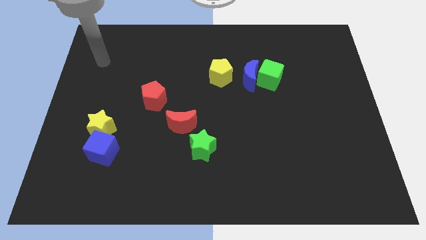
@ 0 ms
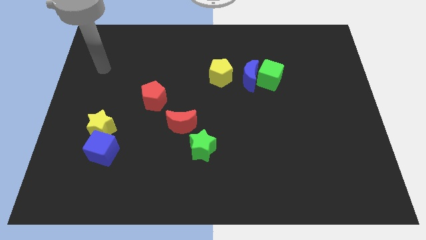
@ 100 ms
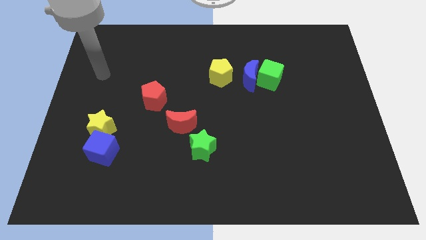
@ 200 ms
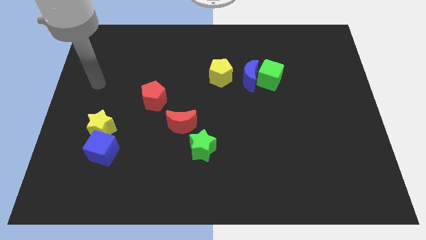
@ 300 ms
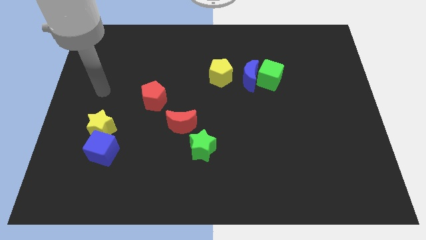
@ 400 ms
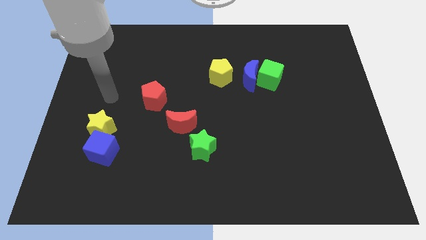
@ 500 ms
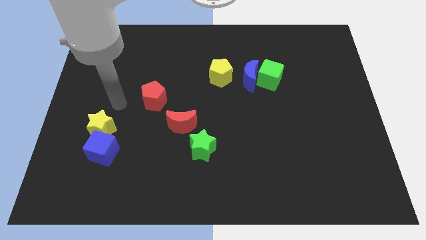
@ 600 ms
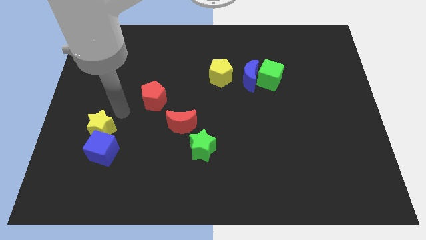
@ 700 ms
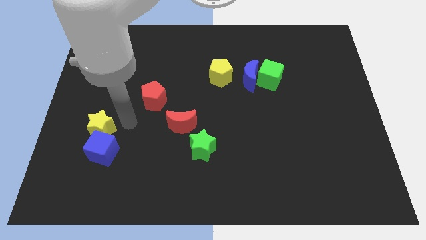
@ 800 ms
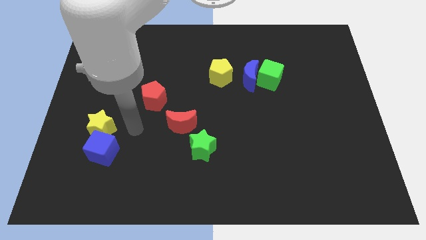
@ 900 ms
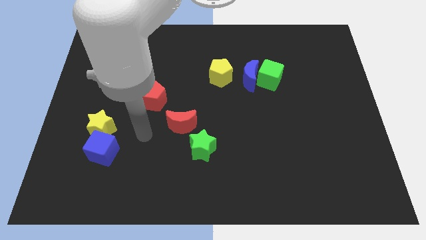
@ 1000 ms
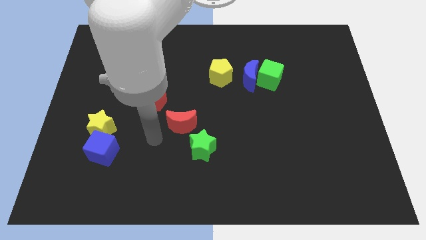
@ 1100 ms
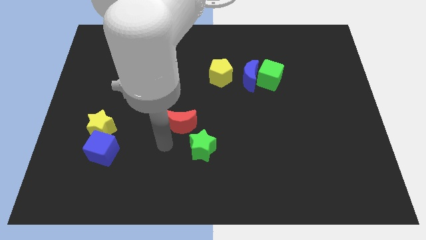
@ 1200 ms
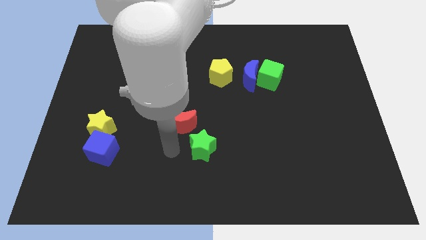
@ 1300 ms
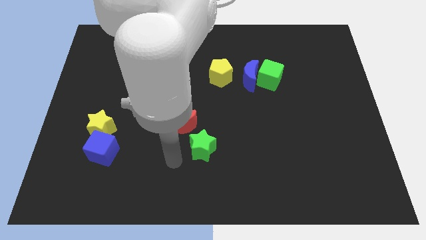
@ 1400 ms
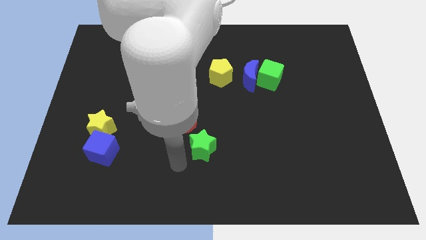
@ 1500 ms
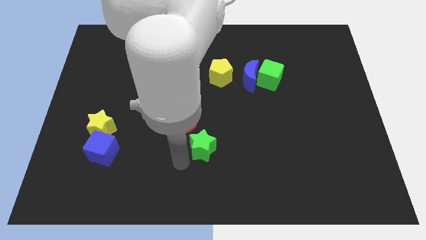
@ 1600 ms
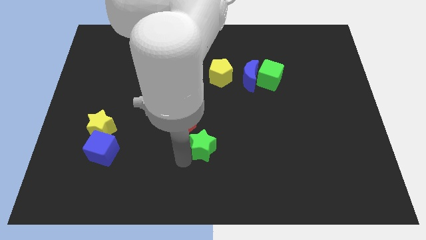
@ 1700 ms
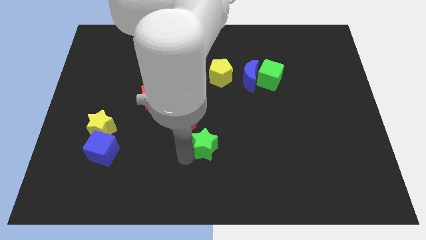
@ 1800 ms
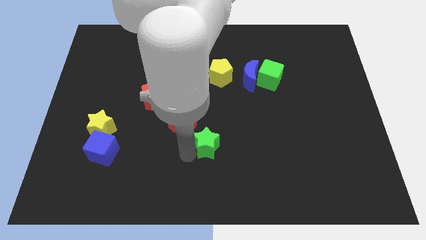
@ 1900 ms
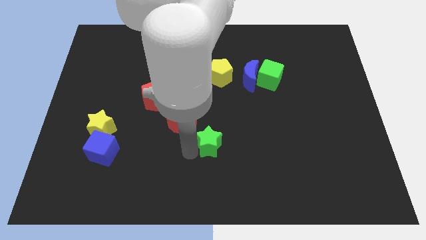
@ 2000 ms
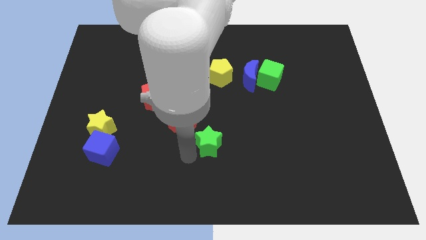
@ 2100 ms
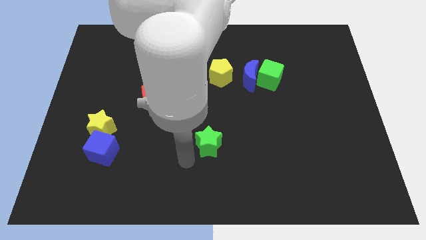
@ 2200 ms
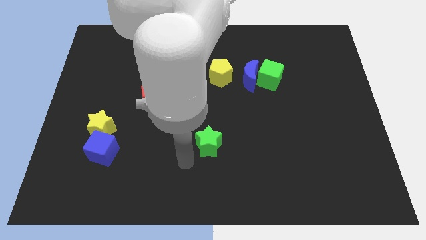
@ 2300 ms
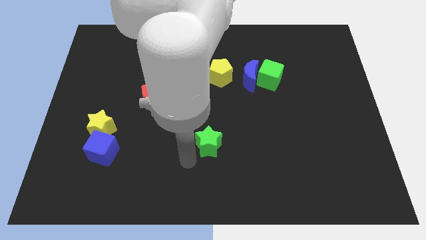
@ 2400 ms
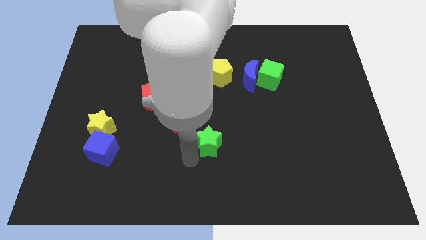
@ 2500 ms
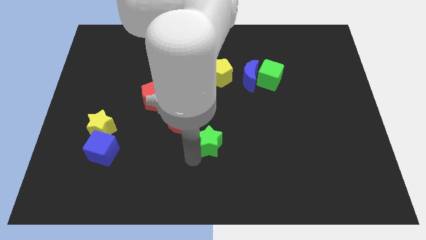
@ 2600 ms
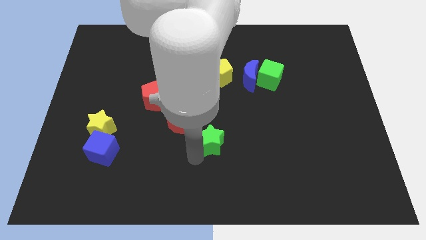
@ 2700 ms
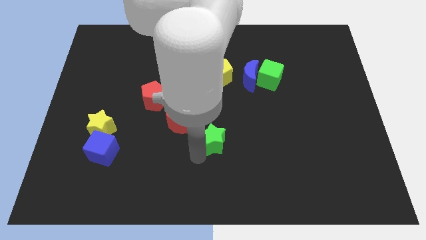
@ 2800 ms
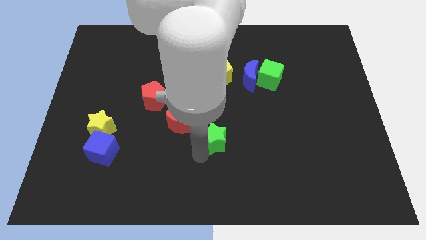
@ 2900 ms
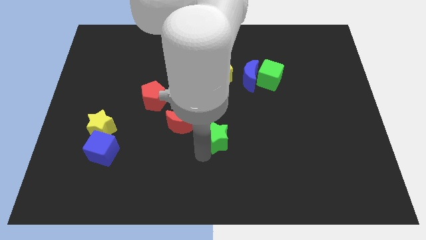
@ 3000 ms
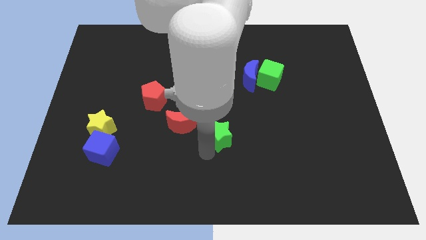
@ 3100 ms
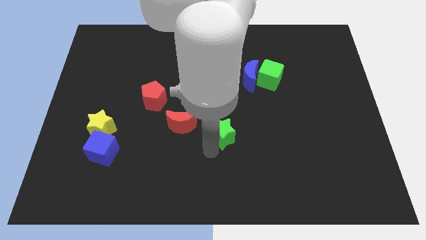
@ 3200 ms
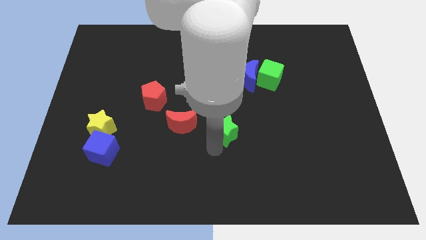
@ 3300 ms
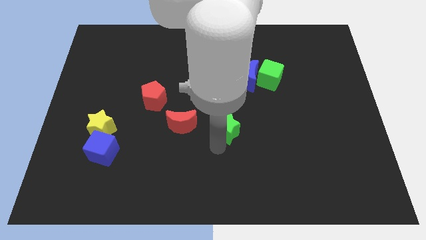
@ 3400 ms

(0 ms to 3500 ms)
push the green star somewhat up and then to the right

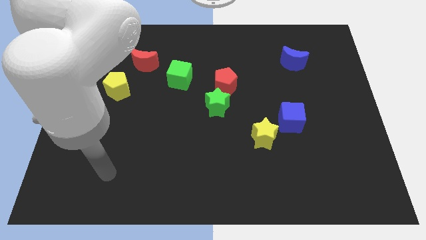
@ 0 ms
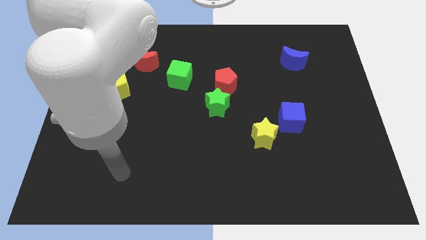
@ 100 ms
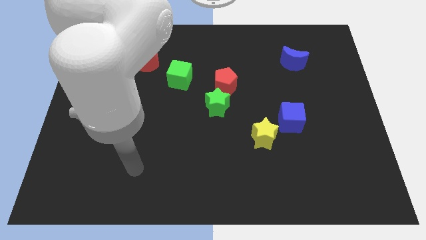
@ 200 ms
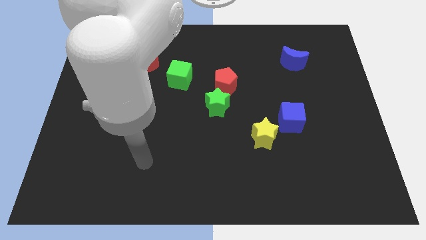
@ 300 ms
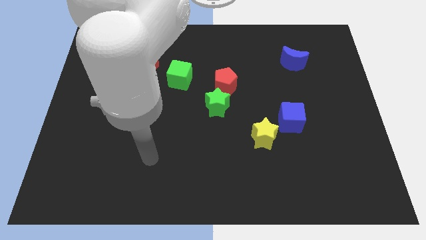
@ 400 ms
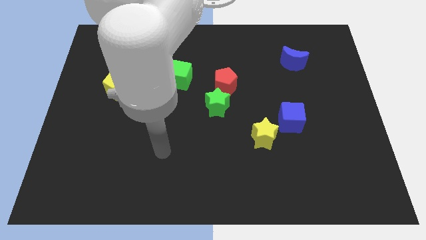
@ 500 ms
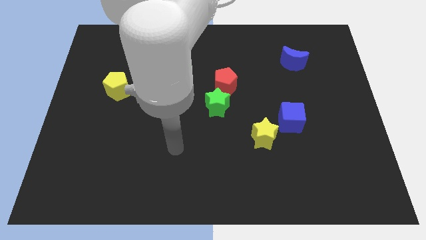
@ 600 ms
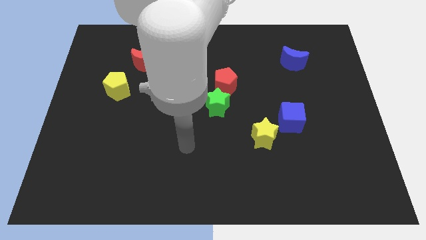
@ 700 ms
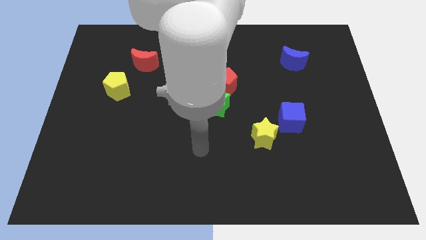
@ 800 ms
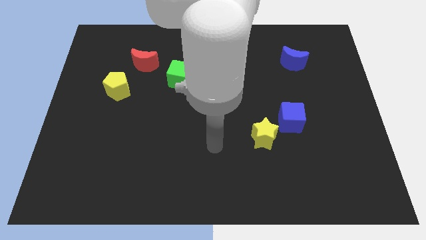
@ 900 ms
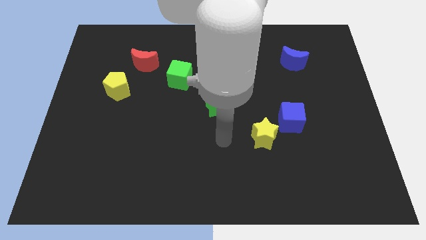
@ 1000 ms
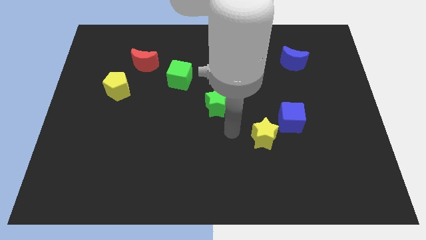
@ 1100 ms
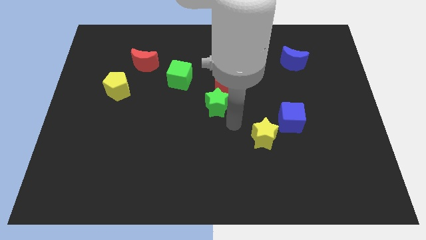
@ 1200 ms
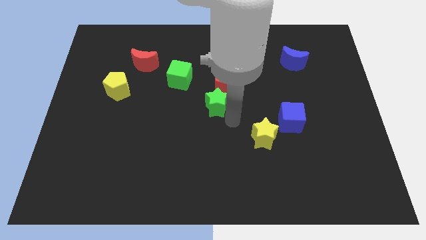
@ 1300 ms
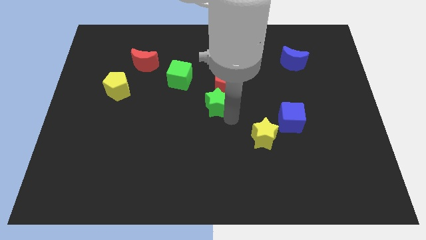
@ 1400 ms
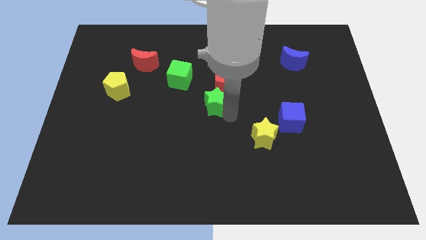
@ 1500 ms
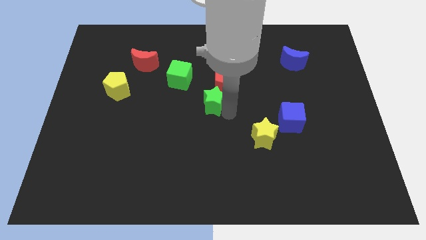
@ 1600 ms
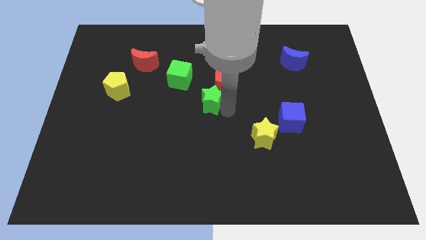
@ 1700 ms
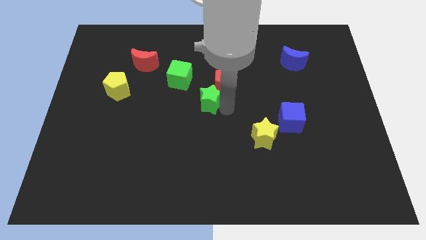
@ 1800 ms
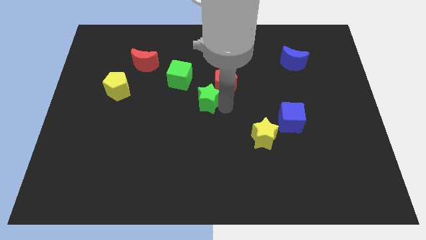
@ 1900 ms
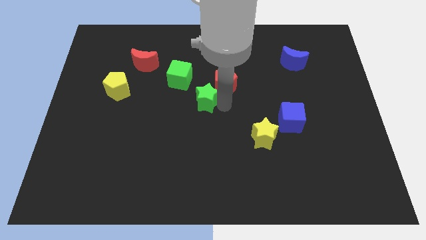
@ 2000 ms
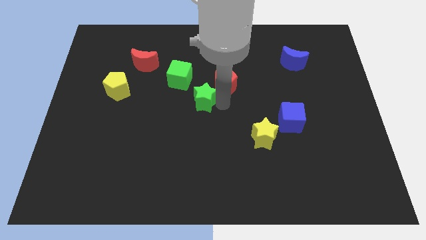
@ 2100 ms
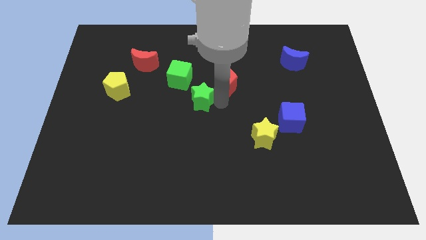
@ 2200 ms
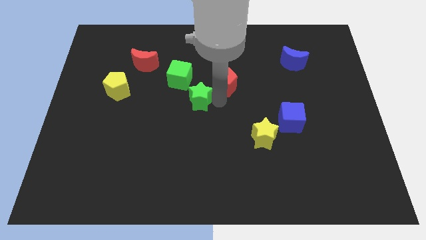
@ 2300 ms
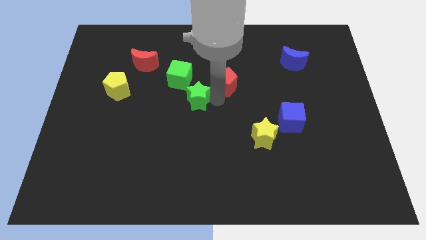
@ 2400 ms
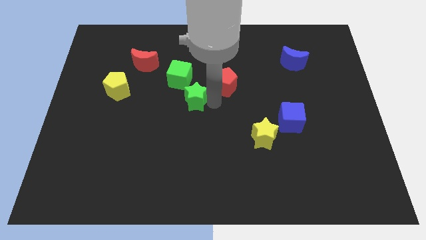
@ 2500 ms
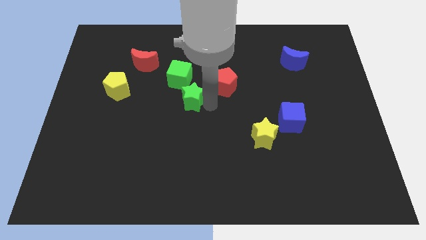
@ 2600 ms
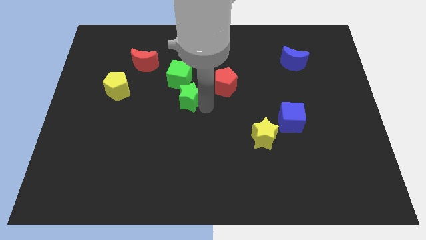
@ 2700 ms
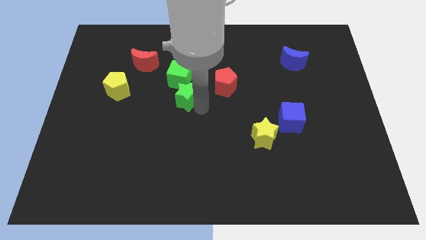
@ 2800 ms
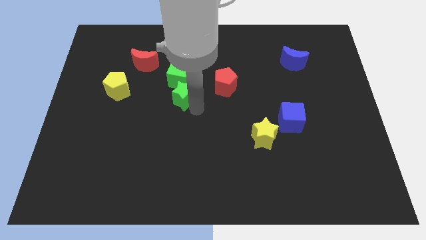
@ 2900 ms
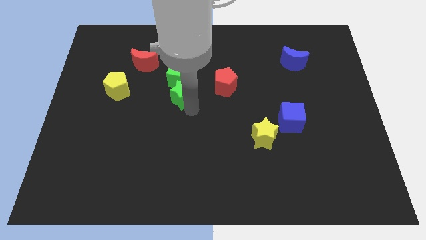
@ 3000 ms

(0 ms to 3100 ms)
slide the green star slightly up and left diagonally

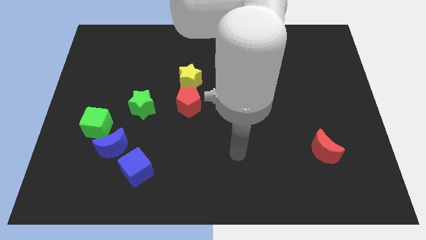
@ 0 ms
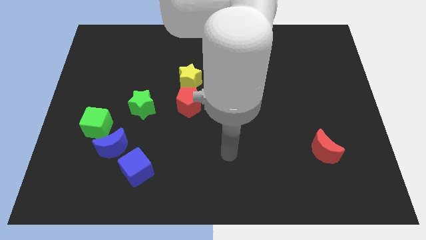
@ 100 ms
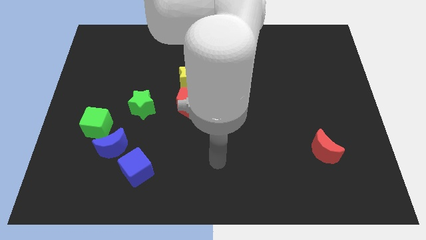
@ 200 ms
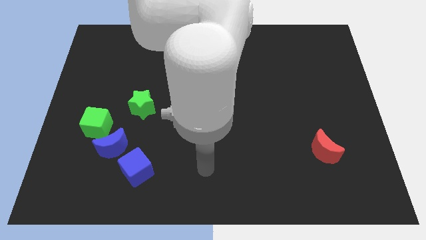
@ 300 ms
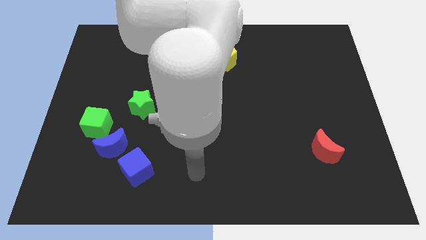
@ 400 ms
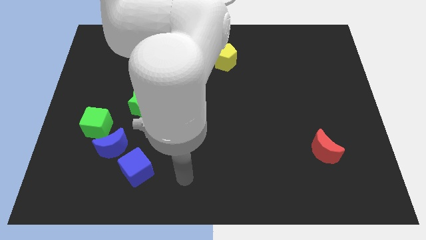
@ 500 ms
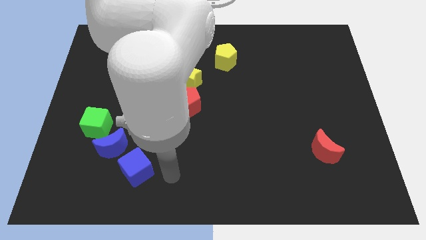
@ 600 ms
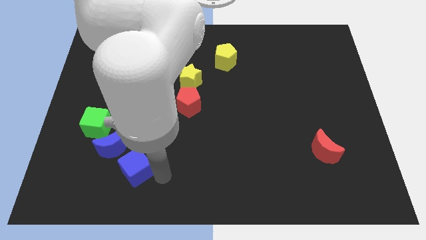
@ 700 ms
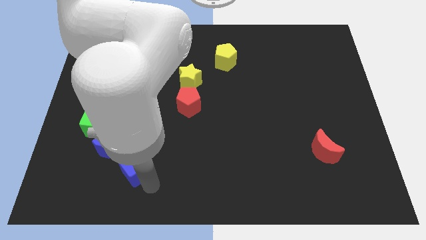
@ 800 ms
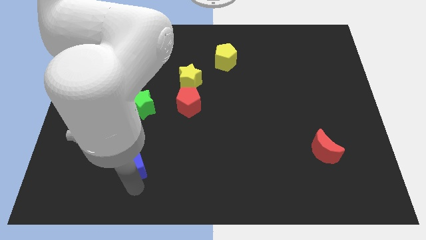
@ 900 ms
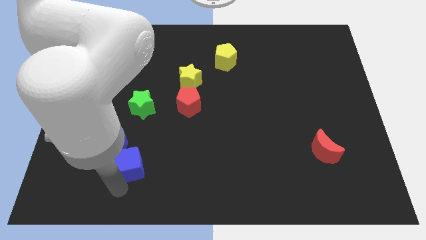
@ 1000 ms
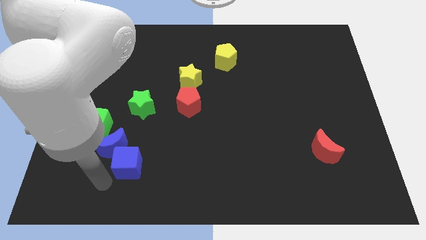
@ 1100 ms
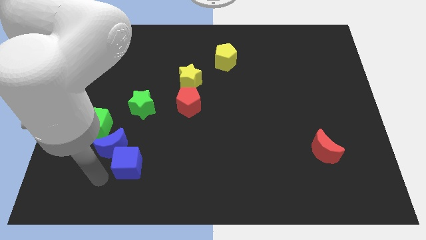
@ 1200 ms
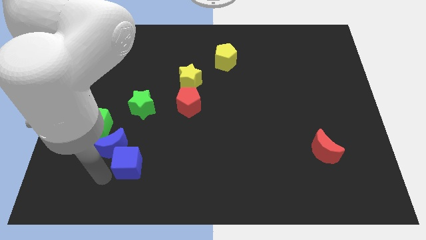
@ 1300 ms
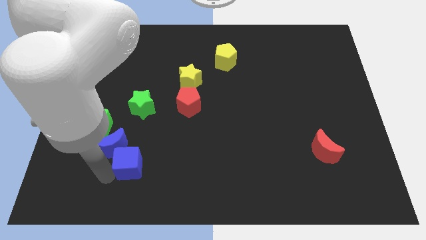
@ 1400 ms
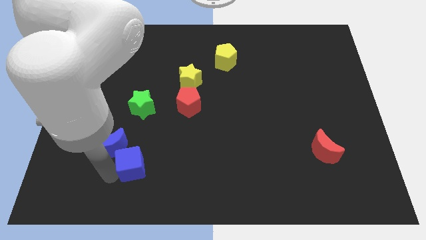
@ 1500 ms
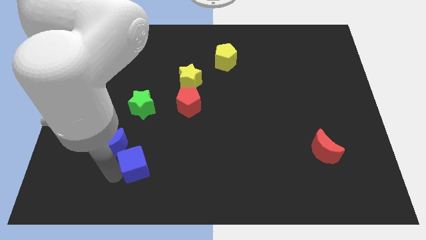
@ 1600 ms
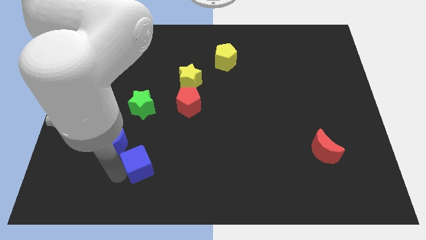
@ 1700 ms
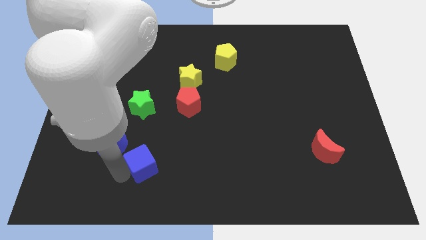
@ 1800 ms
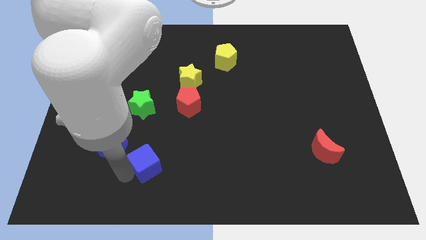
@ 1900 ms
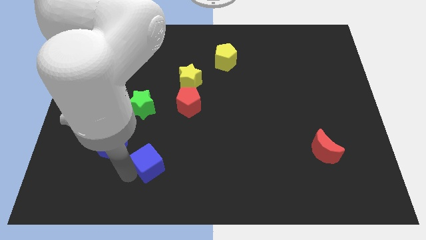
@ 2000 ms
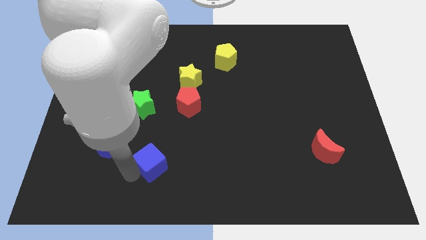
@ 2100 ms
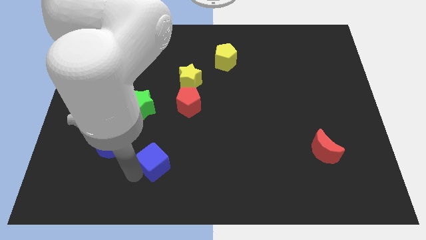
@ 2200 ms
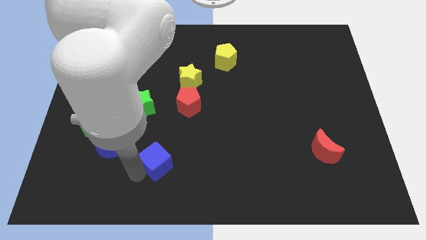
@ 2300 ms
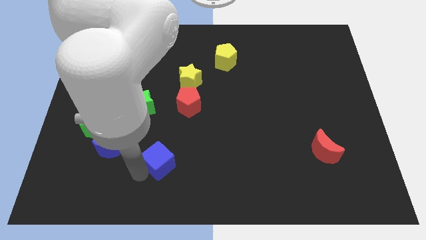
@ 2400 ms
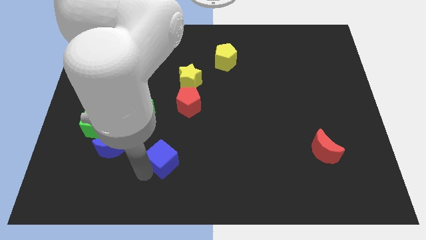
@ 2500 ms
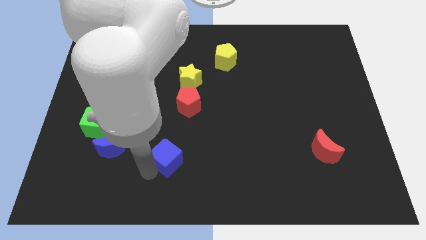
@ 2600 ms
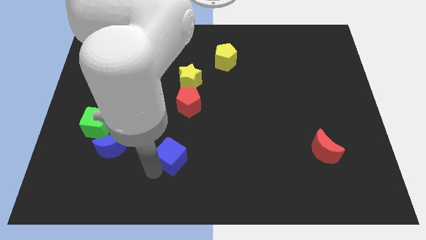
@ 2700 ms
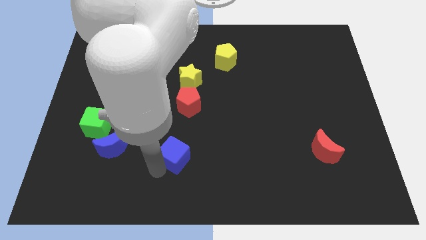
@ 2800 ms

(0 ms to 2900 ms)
push the blue cube upwards and right diagonally a little
